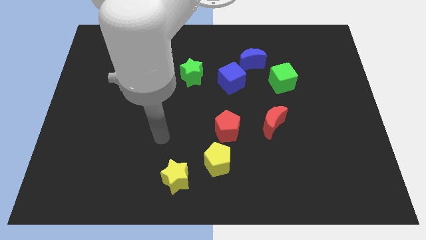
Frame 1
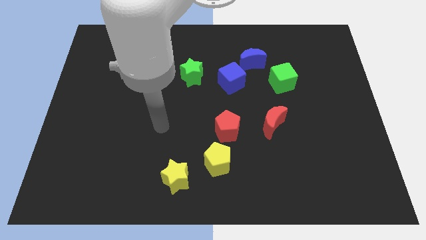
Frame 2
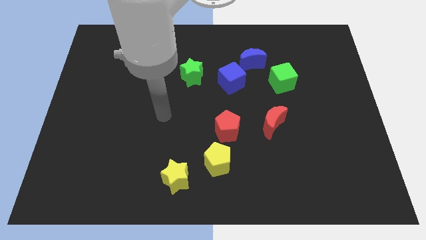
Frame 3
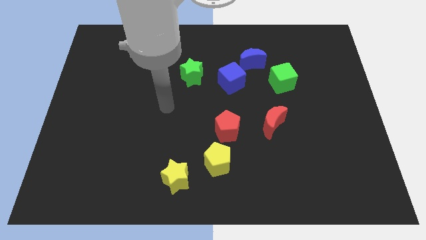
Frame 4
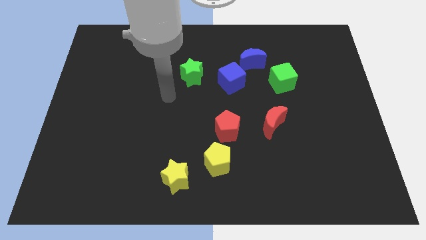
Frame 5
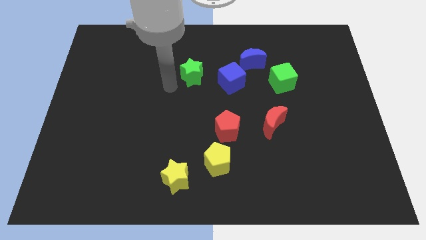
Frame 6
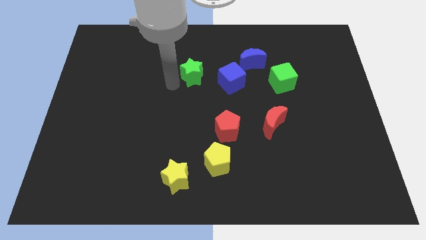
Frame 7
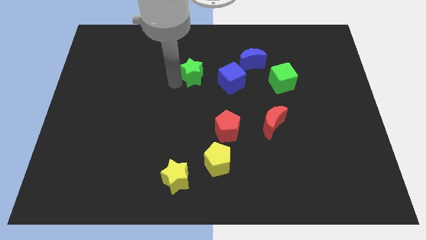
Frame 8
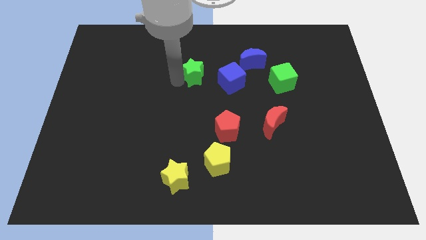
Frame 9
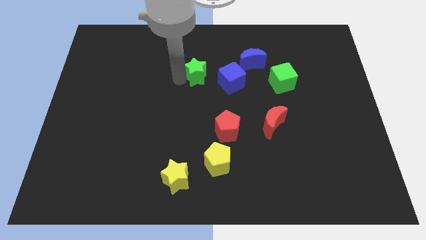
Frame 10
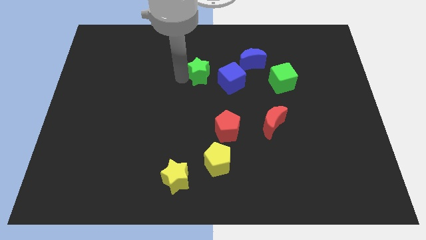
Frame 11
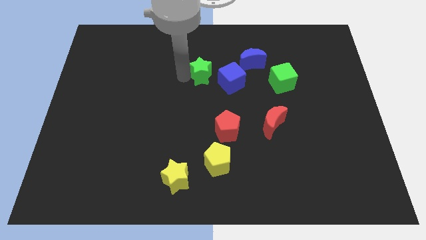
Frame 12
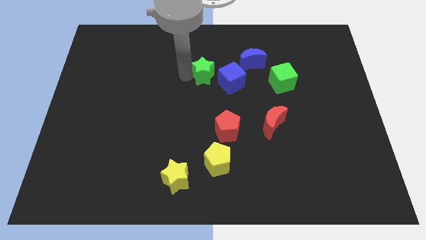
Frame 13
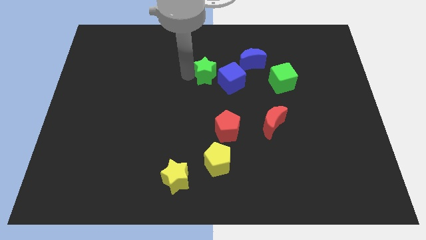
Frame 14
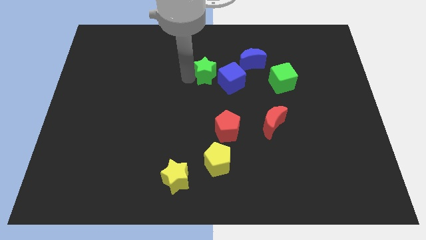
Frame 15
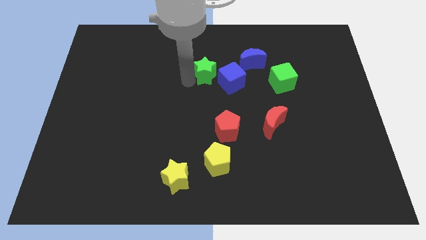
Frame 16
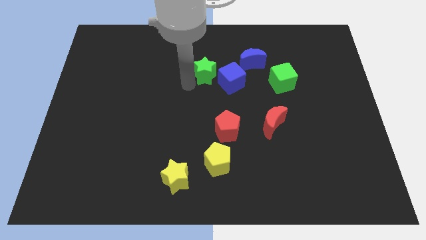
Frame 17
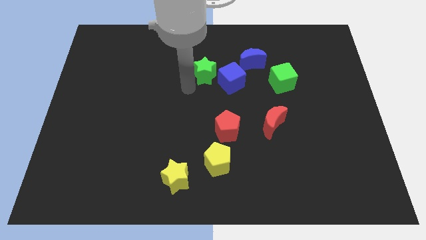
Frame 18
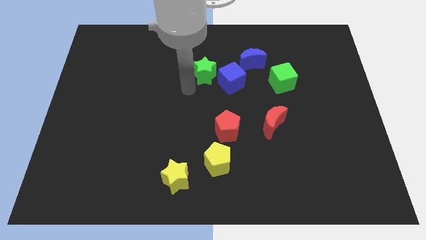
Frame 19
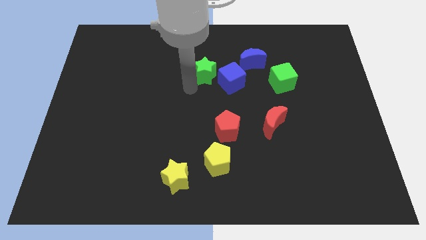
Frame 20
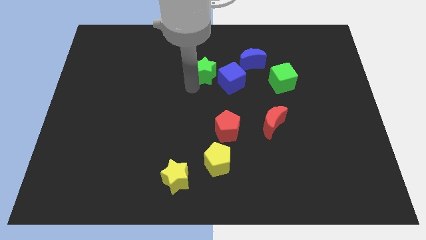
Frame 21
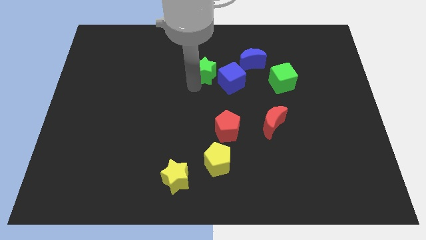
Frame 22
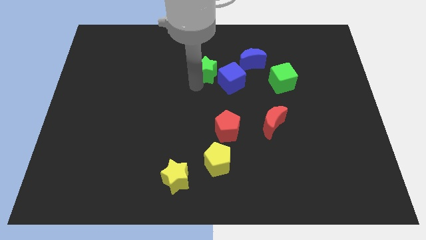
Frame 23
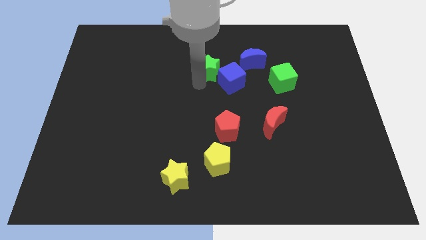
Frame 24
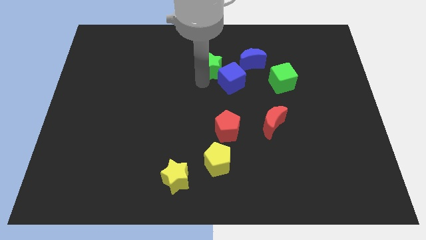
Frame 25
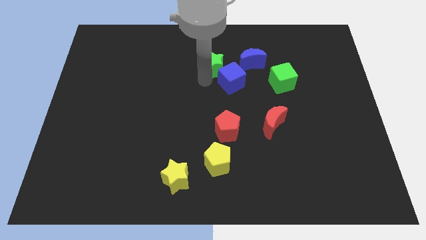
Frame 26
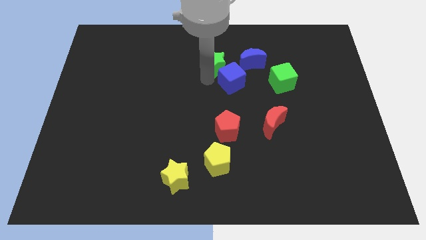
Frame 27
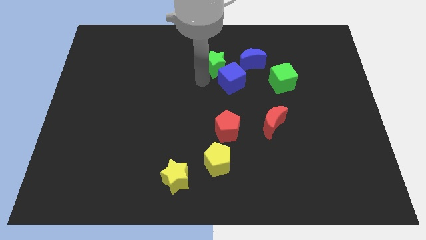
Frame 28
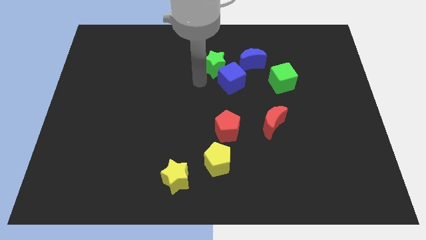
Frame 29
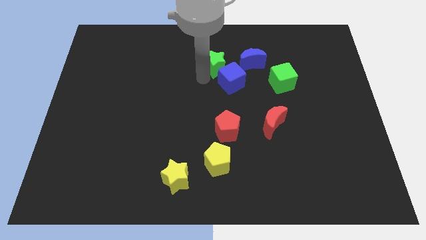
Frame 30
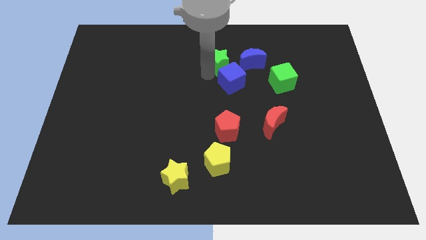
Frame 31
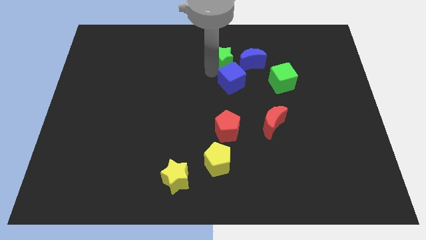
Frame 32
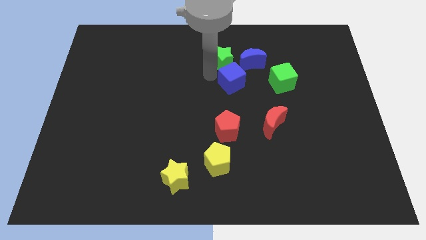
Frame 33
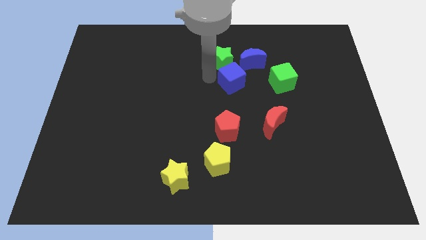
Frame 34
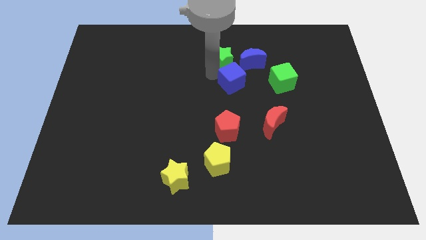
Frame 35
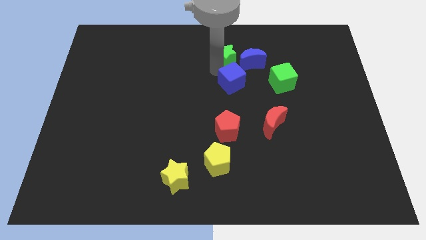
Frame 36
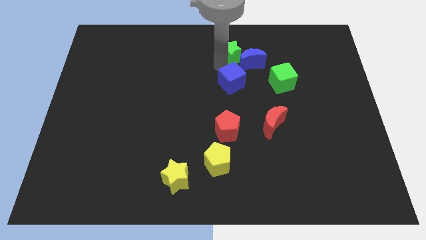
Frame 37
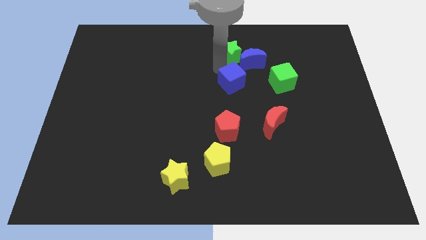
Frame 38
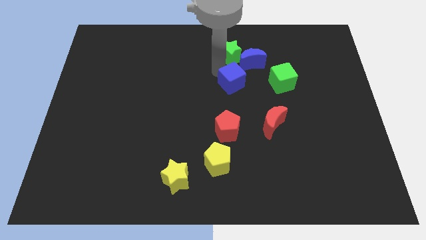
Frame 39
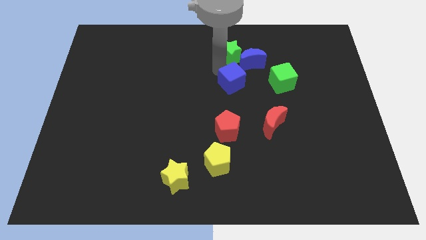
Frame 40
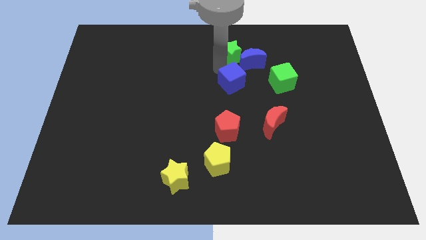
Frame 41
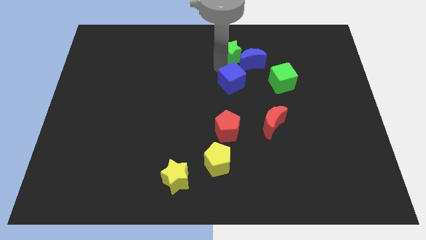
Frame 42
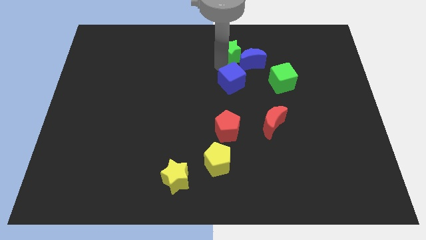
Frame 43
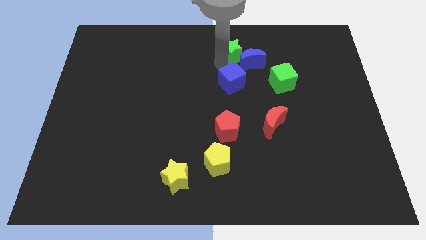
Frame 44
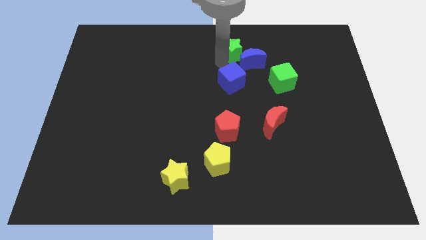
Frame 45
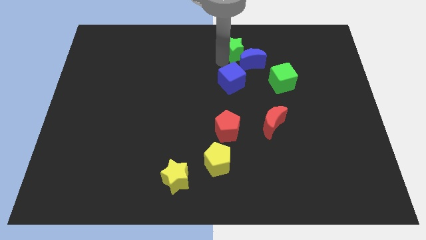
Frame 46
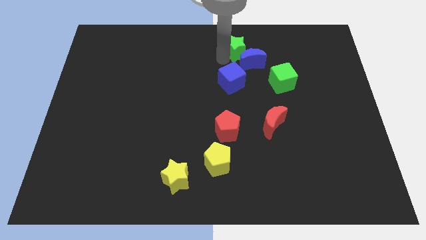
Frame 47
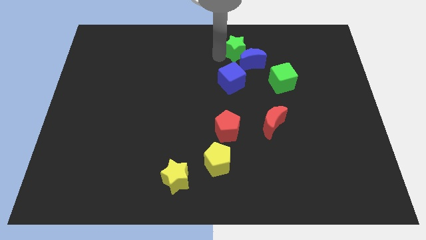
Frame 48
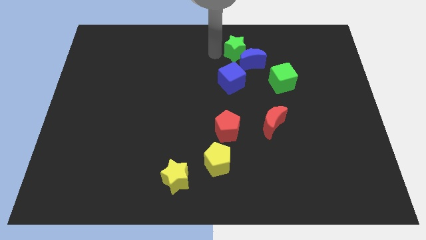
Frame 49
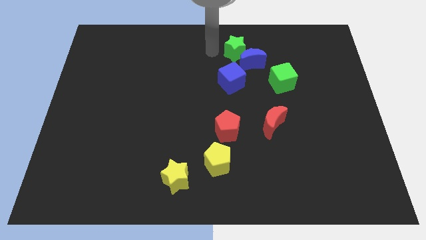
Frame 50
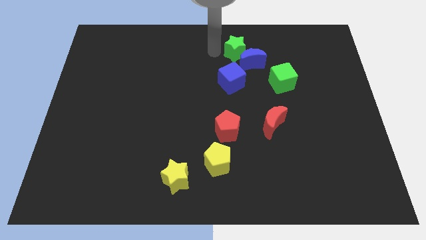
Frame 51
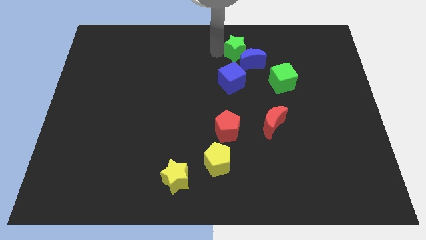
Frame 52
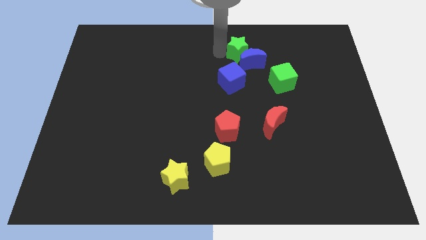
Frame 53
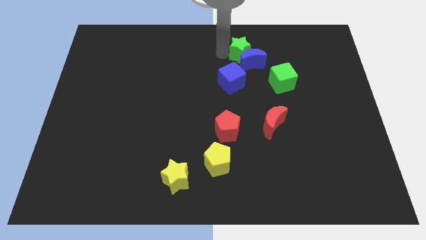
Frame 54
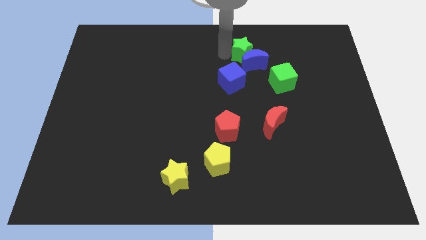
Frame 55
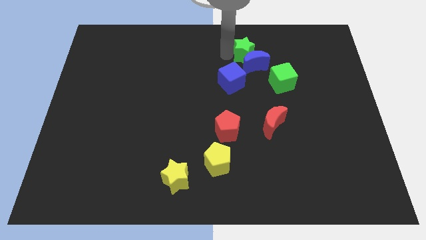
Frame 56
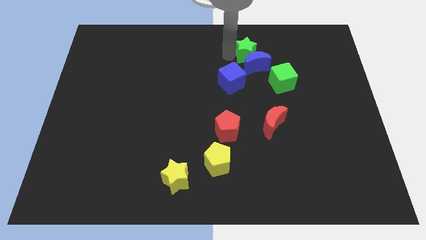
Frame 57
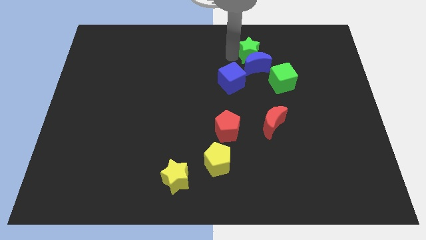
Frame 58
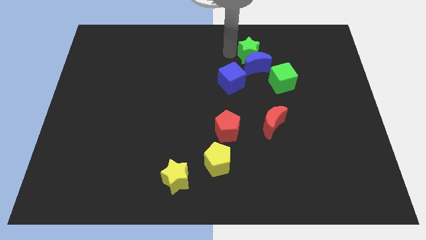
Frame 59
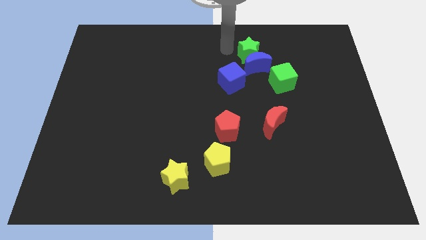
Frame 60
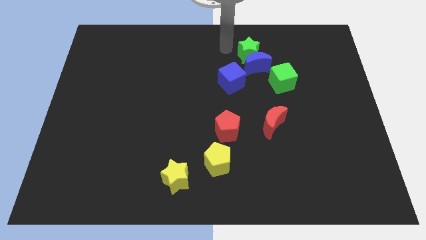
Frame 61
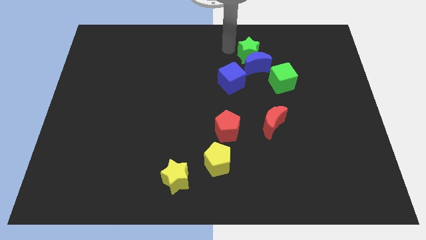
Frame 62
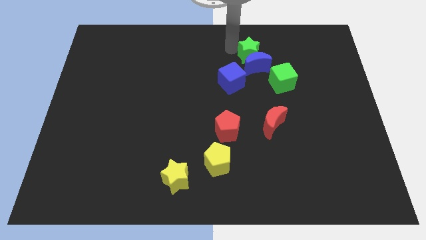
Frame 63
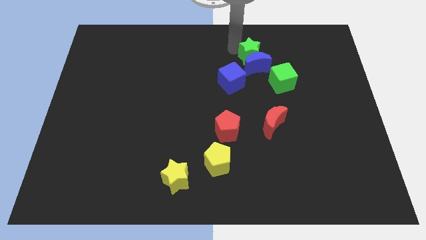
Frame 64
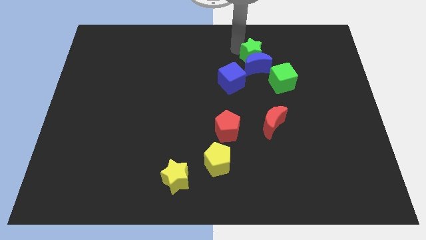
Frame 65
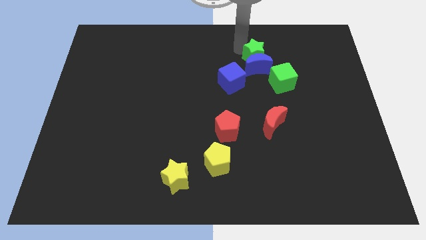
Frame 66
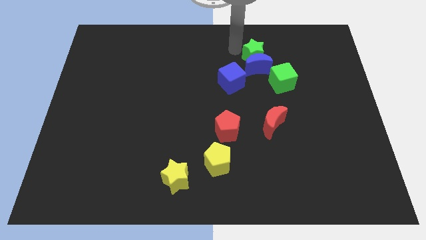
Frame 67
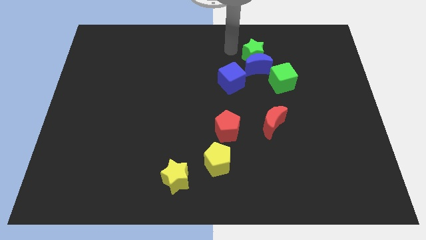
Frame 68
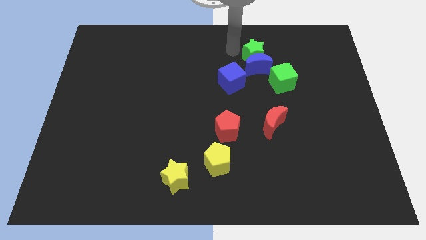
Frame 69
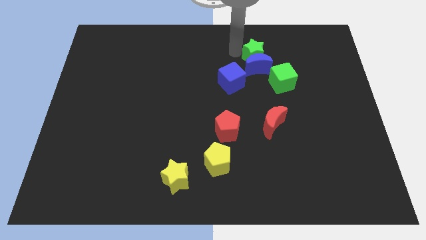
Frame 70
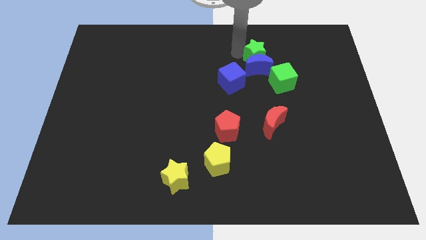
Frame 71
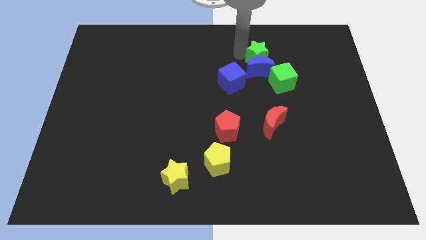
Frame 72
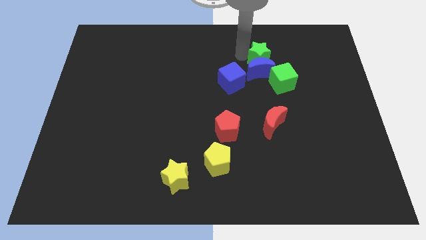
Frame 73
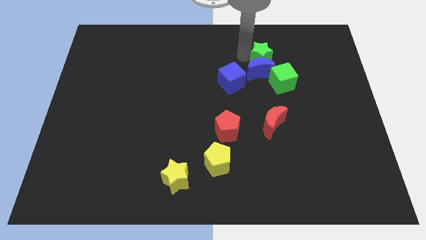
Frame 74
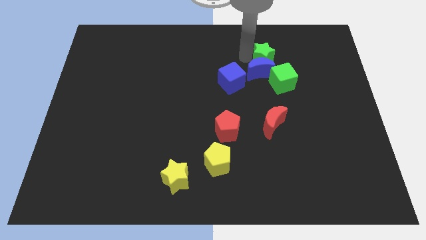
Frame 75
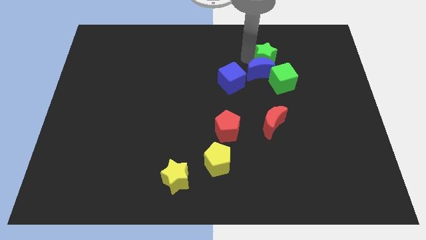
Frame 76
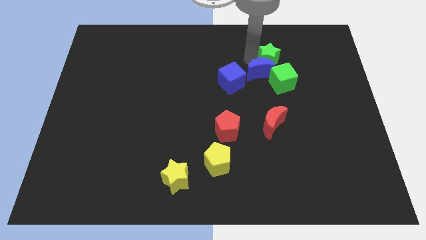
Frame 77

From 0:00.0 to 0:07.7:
push the green star just right of the blue moon
